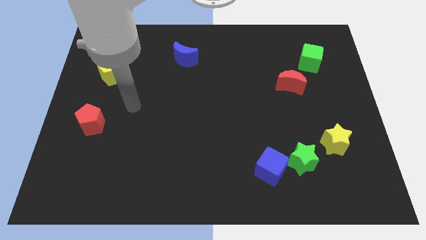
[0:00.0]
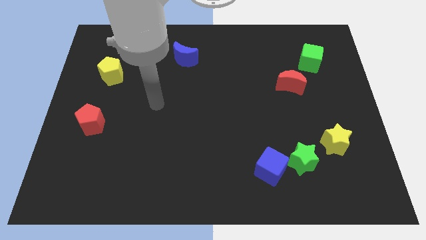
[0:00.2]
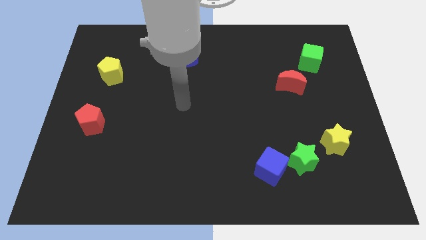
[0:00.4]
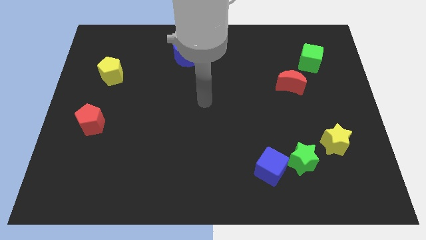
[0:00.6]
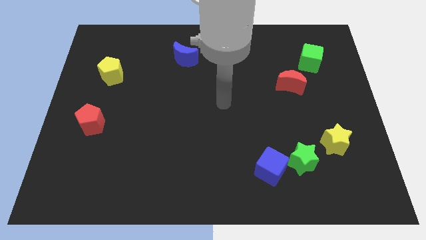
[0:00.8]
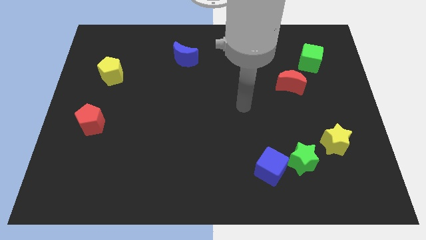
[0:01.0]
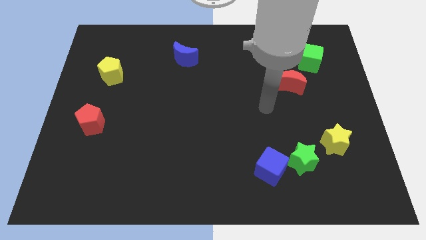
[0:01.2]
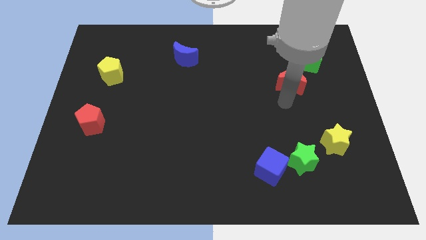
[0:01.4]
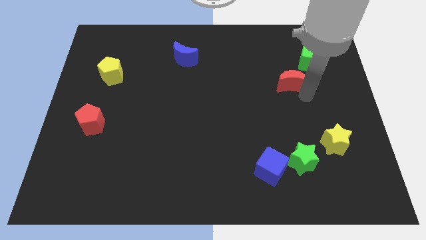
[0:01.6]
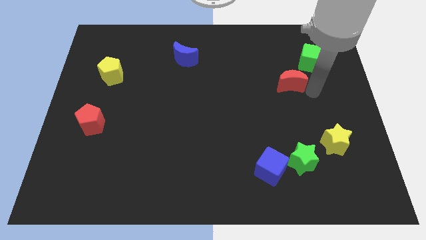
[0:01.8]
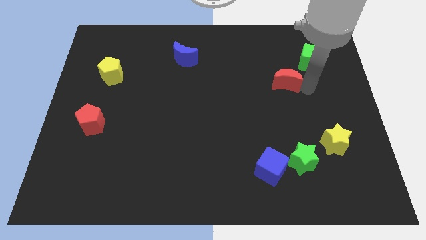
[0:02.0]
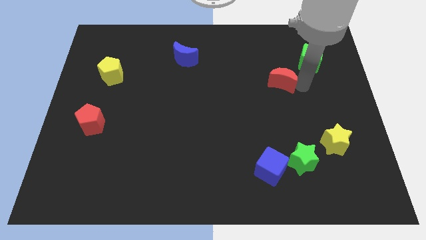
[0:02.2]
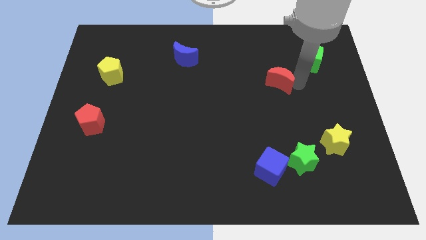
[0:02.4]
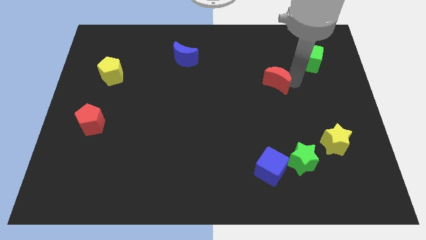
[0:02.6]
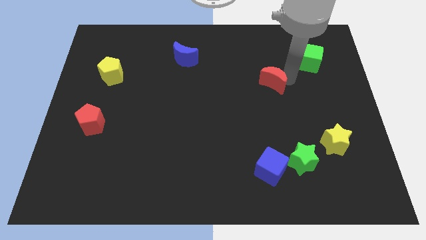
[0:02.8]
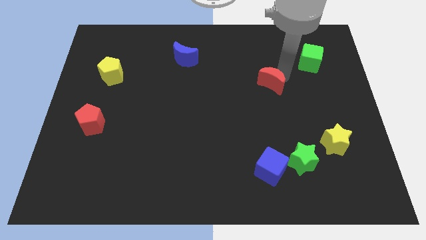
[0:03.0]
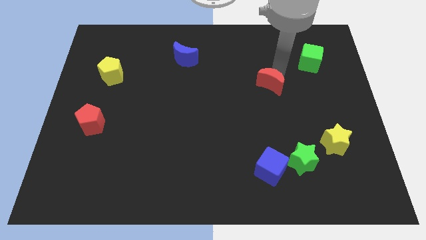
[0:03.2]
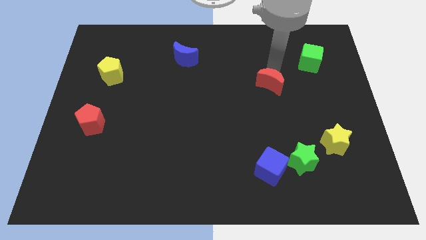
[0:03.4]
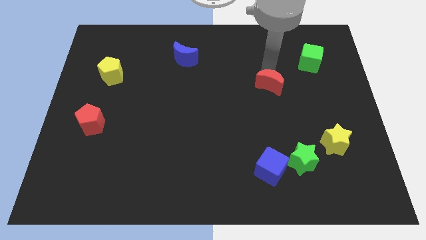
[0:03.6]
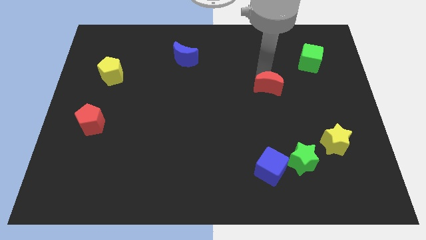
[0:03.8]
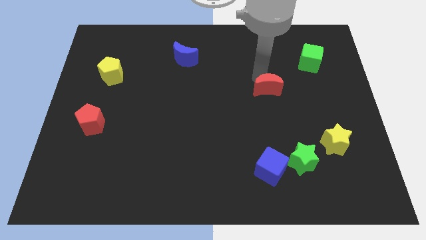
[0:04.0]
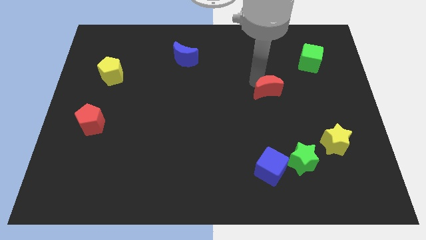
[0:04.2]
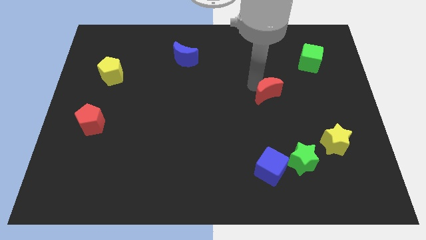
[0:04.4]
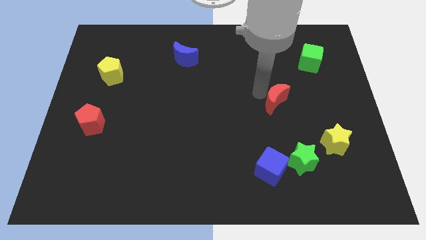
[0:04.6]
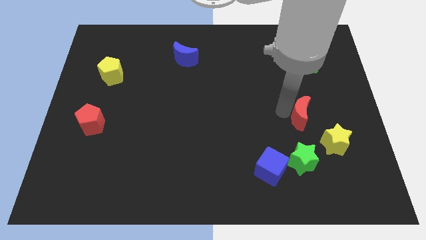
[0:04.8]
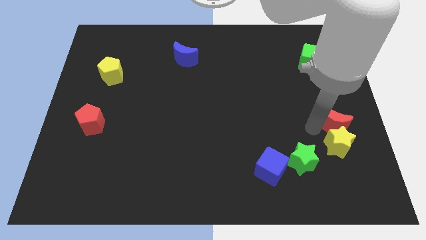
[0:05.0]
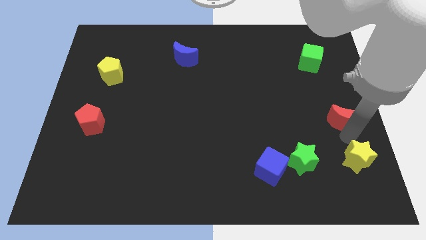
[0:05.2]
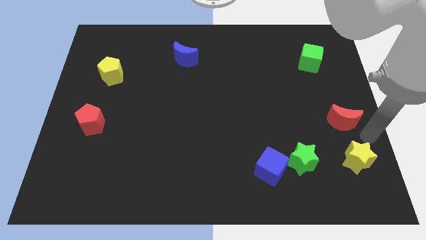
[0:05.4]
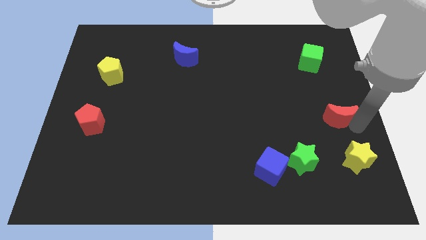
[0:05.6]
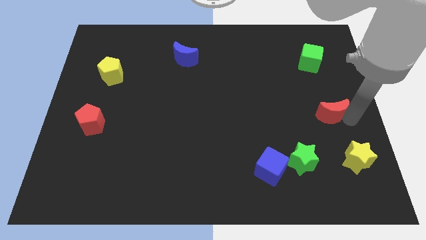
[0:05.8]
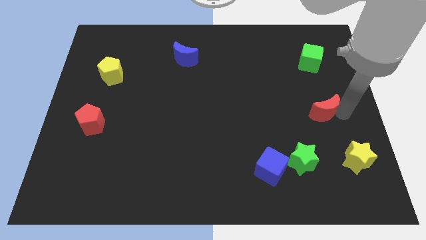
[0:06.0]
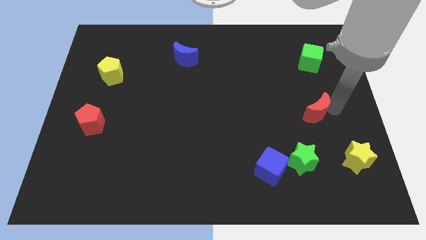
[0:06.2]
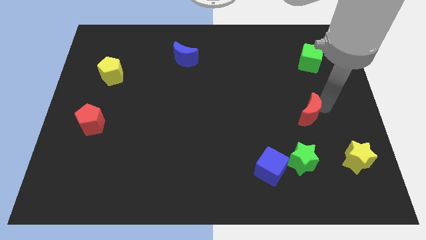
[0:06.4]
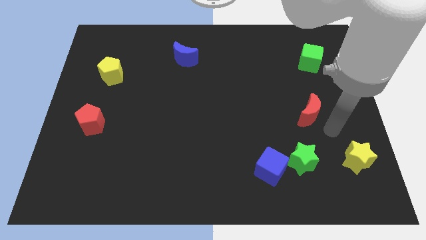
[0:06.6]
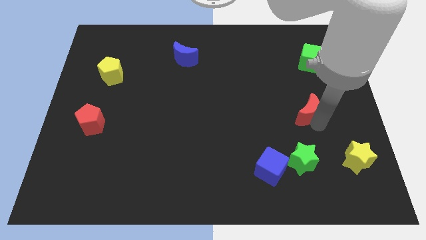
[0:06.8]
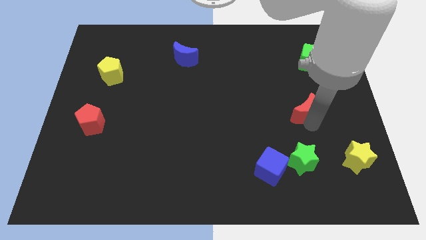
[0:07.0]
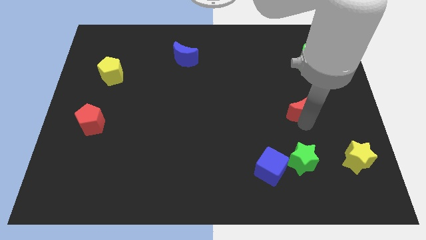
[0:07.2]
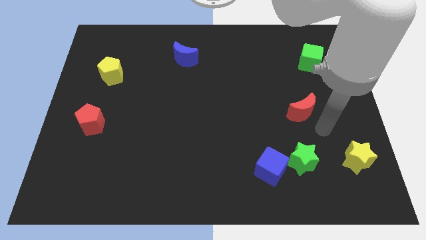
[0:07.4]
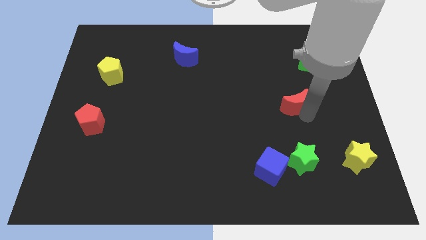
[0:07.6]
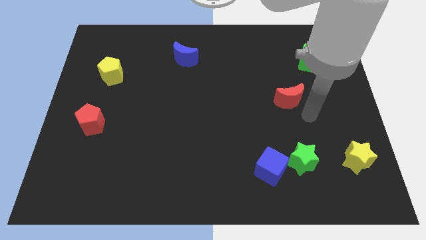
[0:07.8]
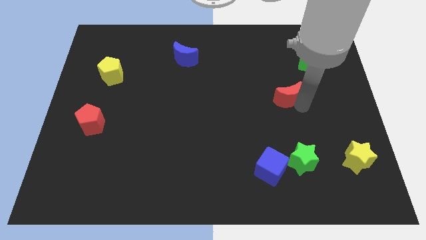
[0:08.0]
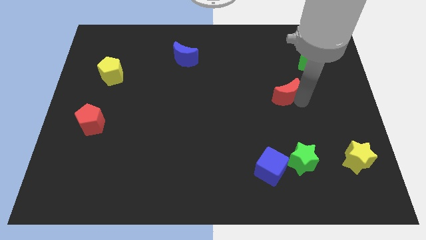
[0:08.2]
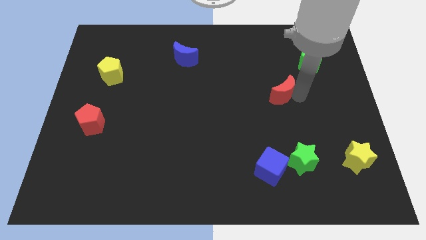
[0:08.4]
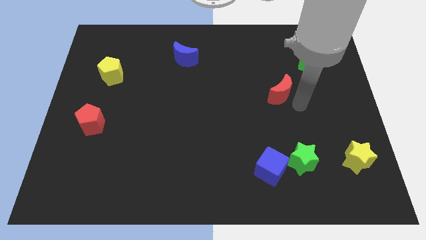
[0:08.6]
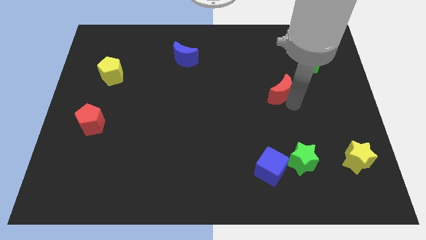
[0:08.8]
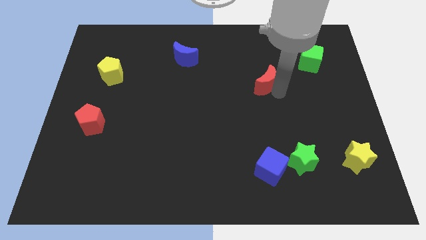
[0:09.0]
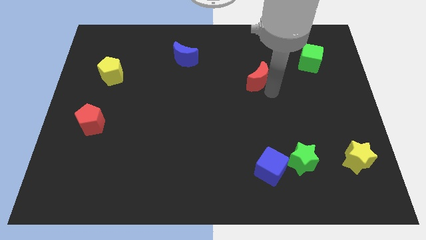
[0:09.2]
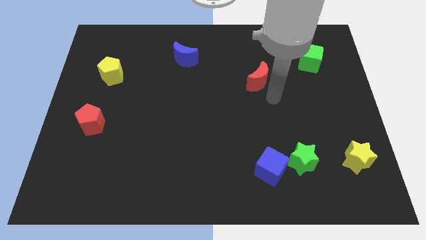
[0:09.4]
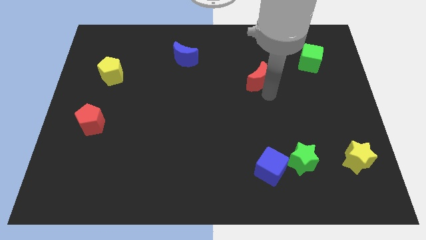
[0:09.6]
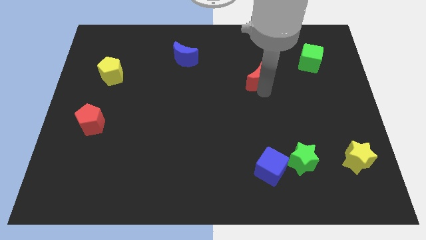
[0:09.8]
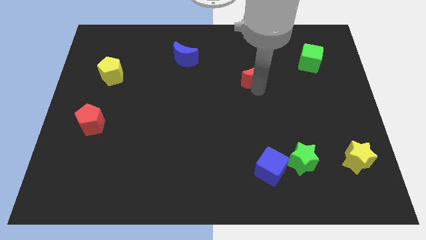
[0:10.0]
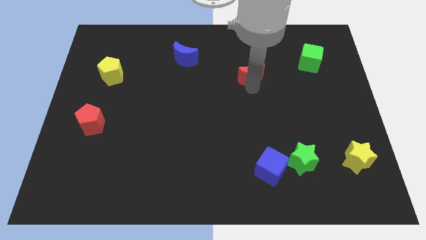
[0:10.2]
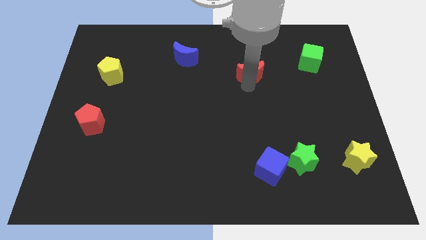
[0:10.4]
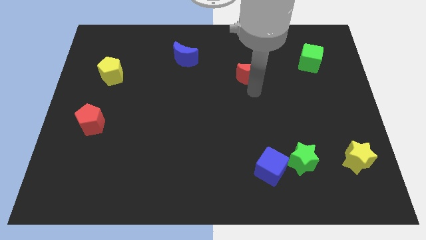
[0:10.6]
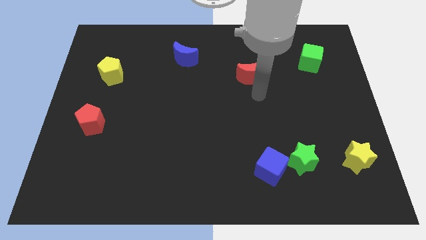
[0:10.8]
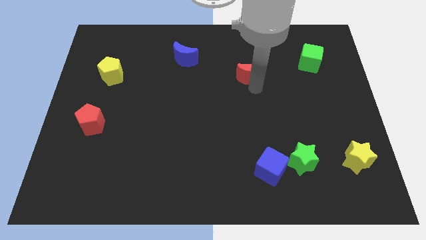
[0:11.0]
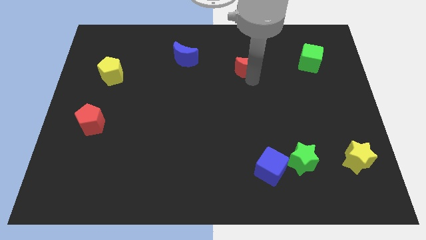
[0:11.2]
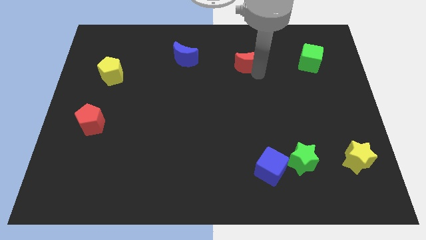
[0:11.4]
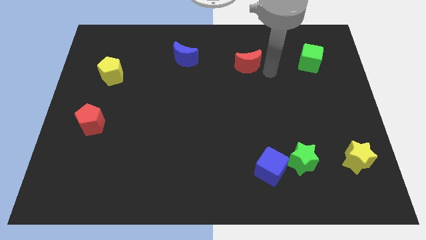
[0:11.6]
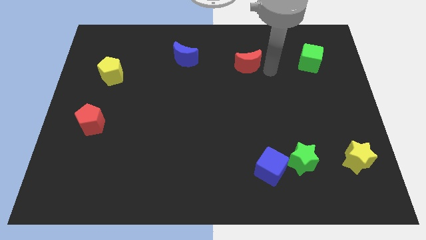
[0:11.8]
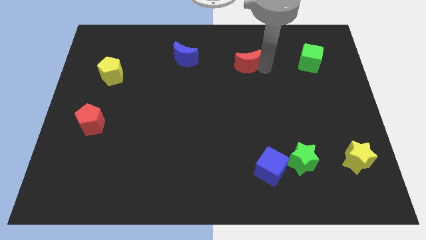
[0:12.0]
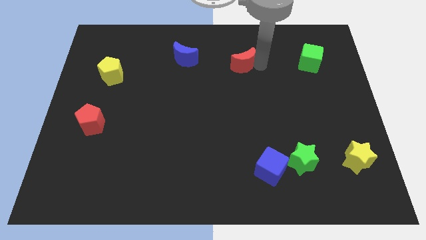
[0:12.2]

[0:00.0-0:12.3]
put the red moon just right of the blue moon

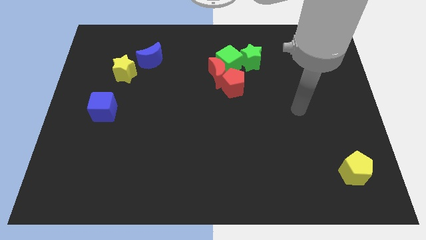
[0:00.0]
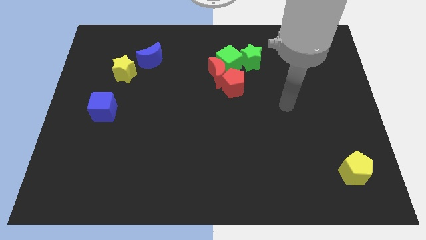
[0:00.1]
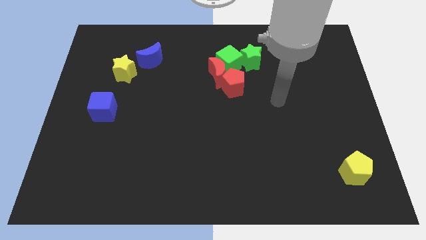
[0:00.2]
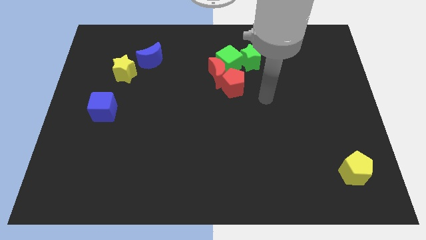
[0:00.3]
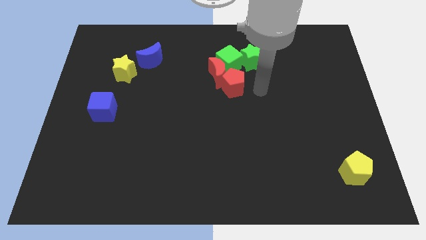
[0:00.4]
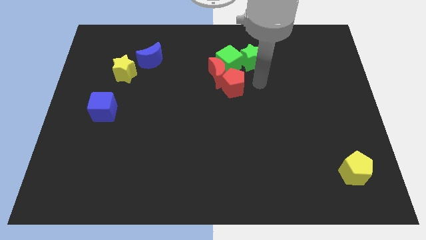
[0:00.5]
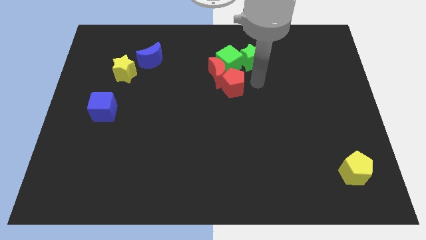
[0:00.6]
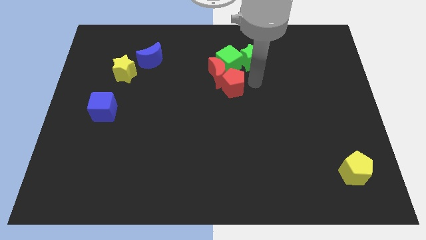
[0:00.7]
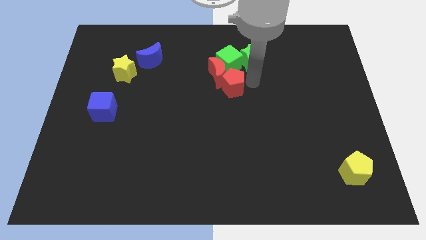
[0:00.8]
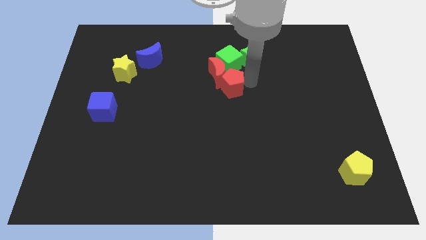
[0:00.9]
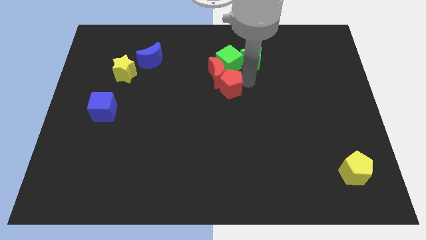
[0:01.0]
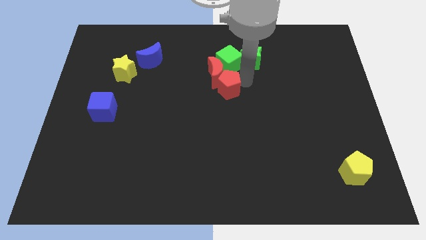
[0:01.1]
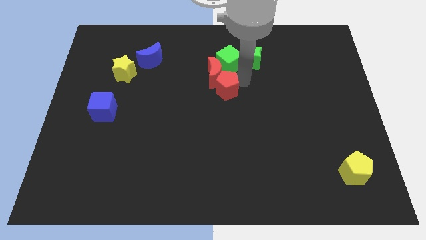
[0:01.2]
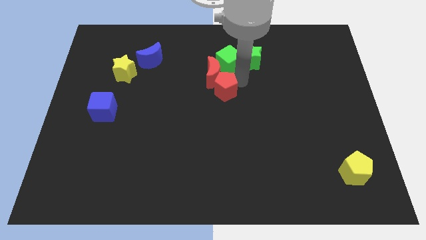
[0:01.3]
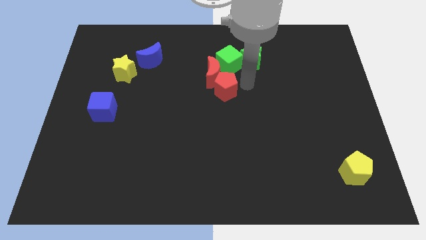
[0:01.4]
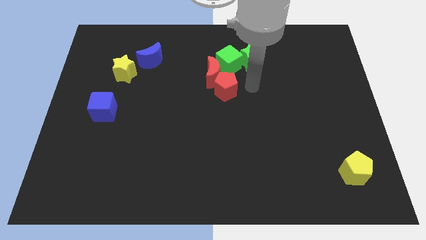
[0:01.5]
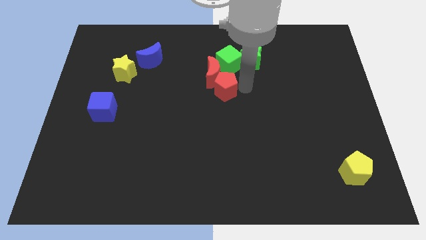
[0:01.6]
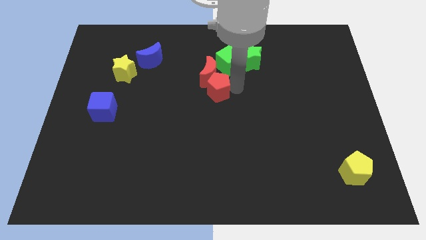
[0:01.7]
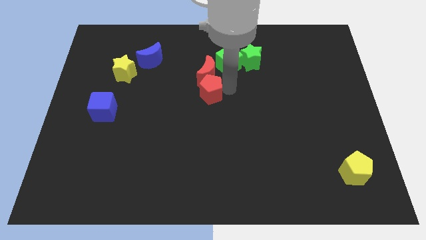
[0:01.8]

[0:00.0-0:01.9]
slide the red pentagon to the bottom left of the red moon
